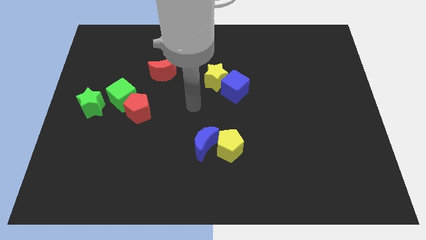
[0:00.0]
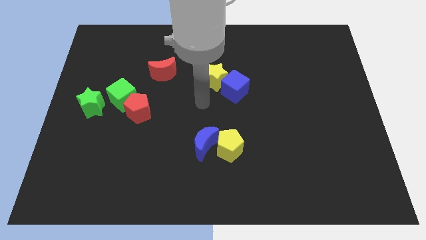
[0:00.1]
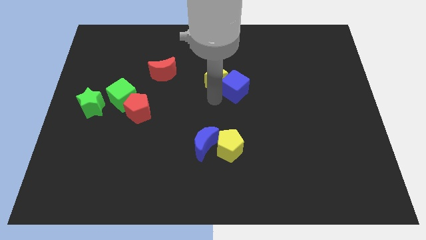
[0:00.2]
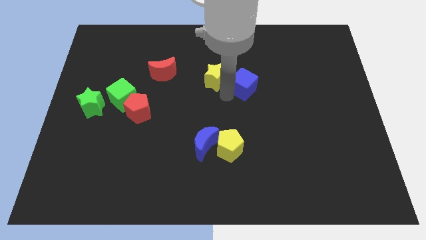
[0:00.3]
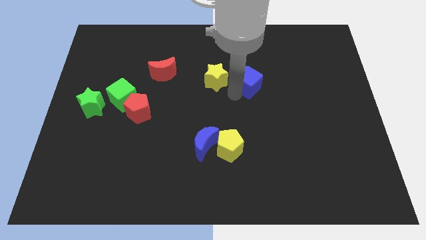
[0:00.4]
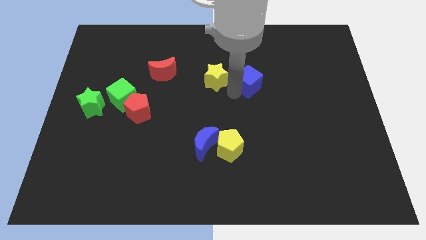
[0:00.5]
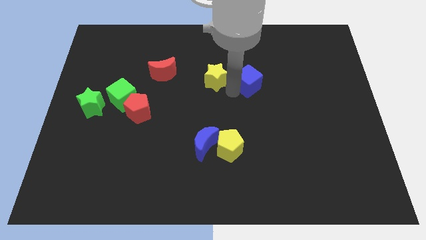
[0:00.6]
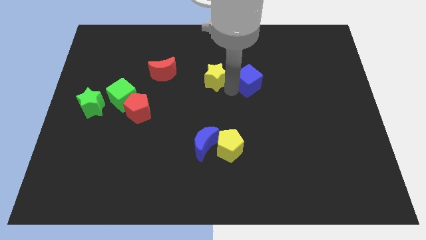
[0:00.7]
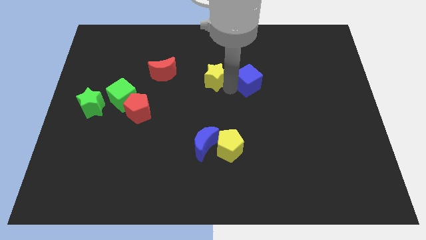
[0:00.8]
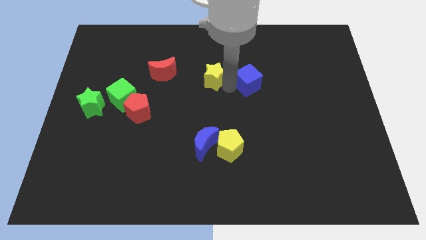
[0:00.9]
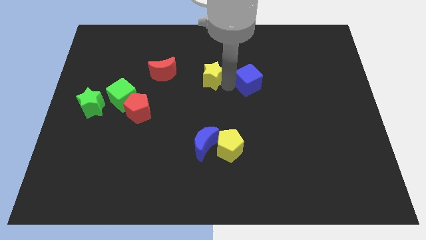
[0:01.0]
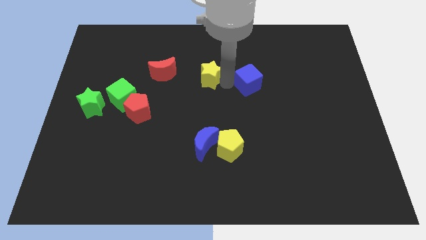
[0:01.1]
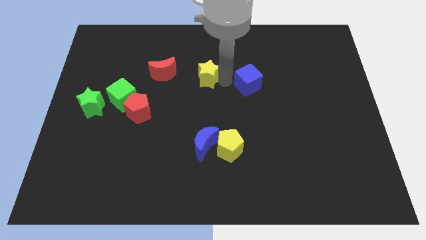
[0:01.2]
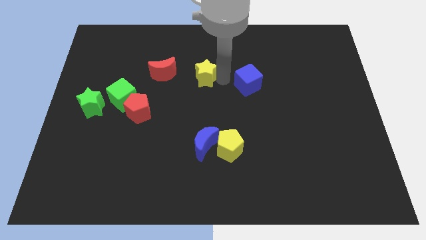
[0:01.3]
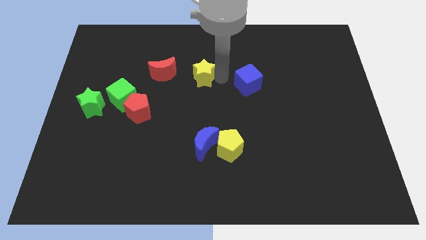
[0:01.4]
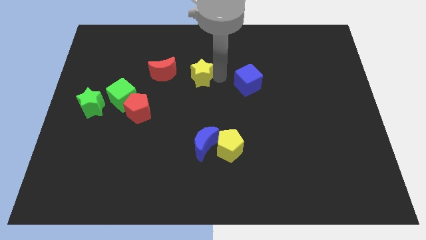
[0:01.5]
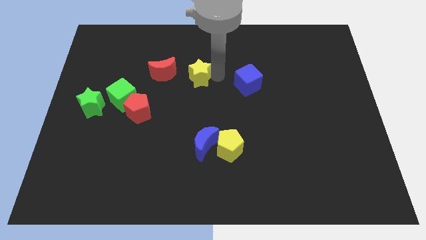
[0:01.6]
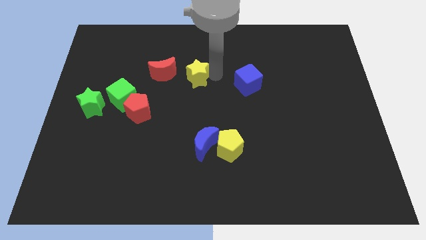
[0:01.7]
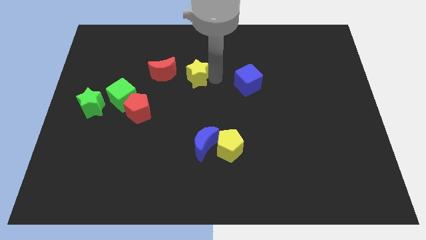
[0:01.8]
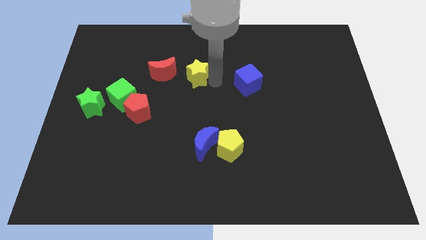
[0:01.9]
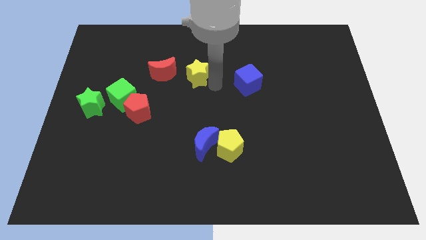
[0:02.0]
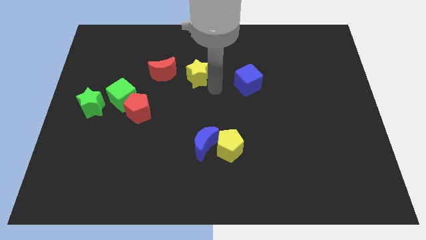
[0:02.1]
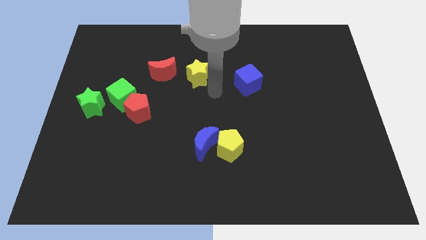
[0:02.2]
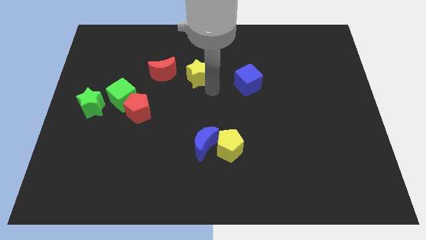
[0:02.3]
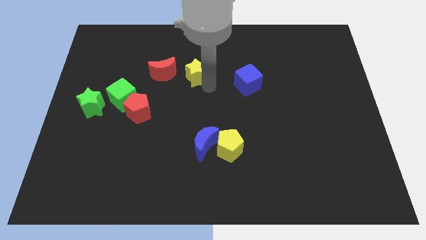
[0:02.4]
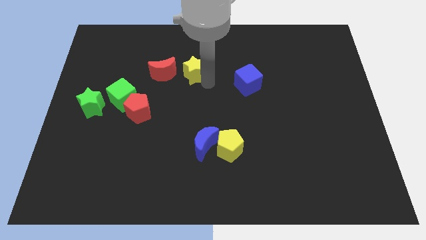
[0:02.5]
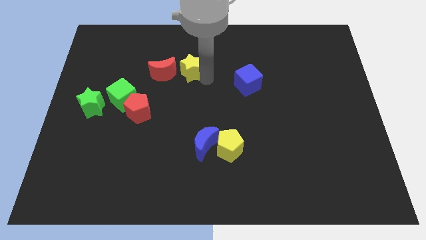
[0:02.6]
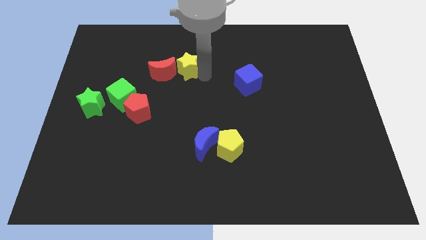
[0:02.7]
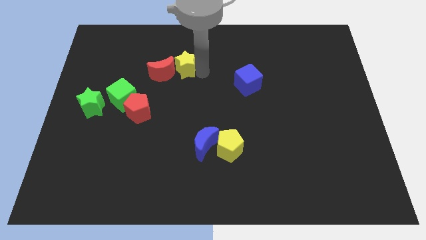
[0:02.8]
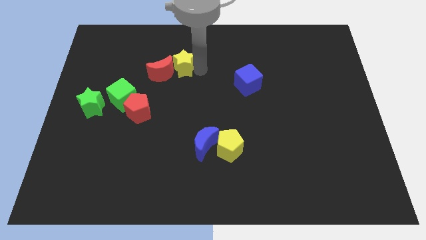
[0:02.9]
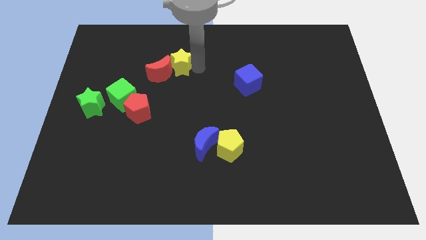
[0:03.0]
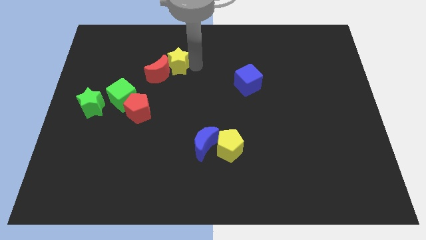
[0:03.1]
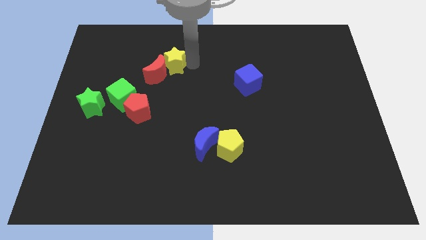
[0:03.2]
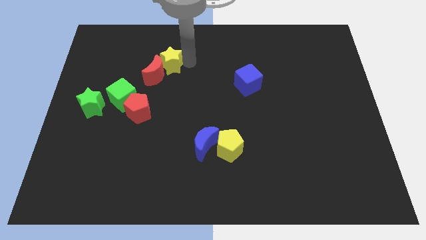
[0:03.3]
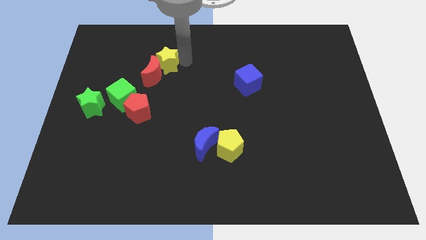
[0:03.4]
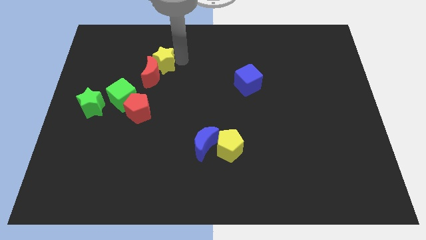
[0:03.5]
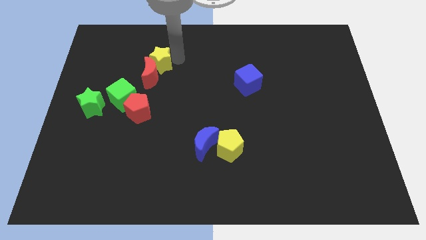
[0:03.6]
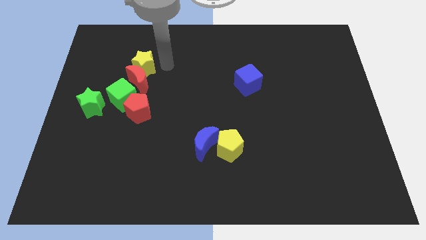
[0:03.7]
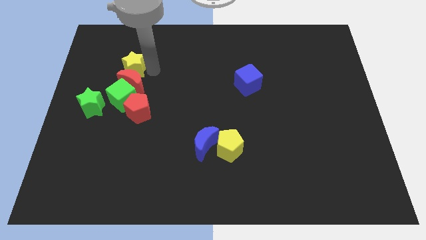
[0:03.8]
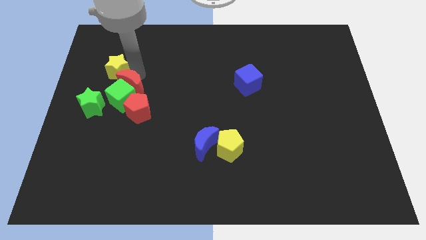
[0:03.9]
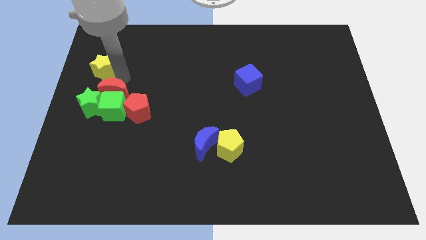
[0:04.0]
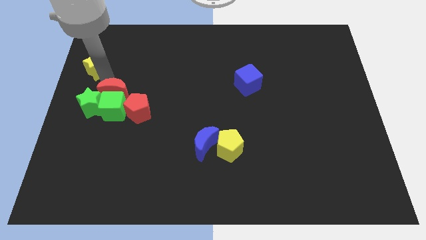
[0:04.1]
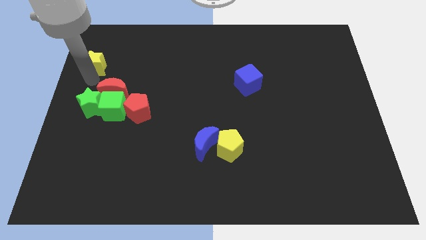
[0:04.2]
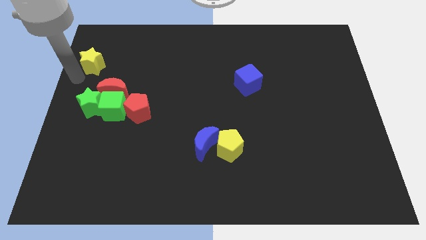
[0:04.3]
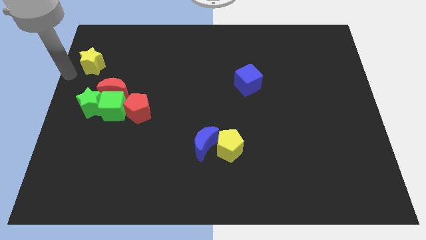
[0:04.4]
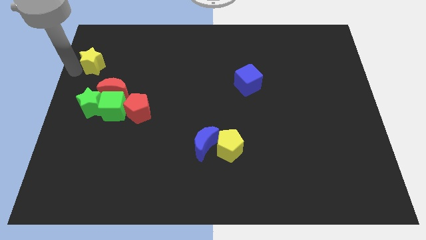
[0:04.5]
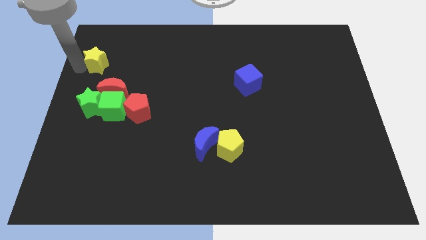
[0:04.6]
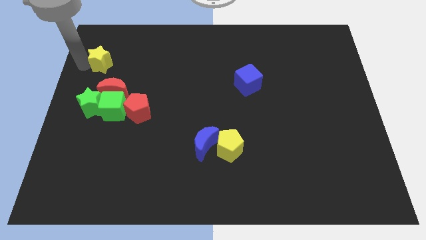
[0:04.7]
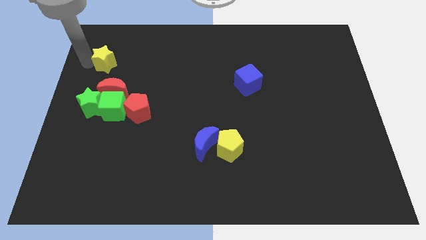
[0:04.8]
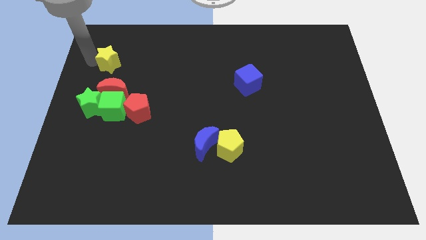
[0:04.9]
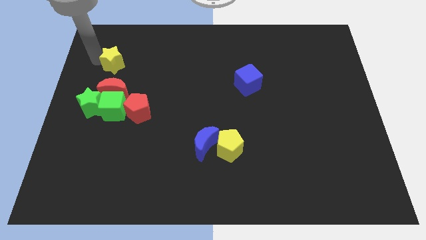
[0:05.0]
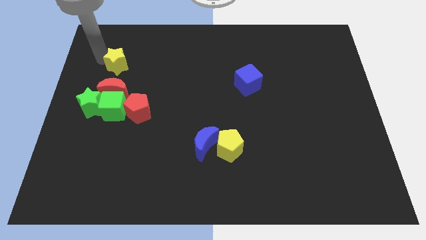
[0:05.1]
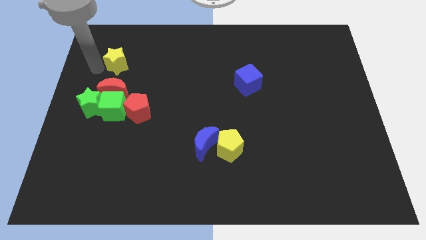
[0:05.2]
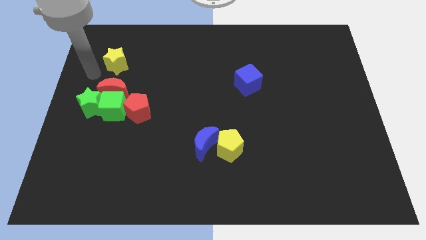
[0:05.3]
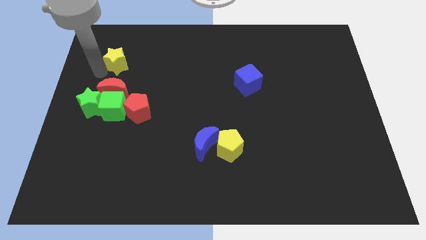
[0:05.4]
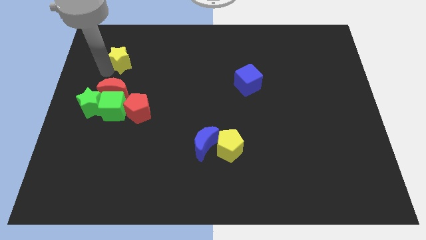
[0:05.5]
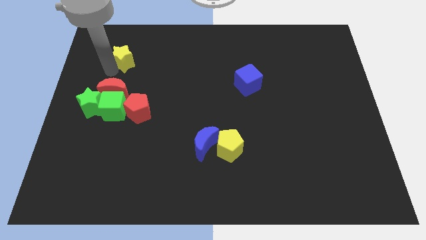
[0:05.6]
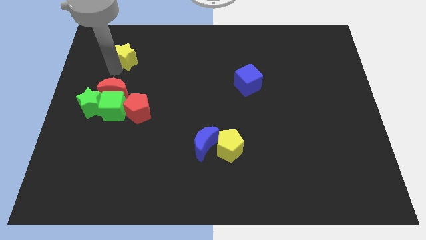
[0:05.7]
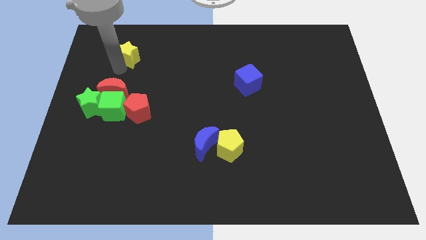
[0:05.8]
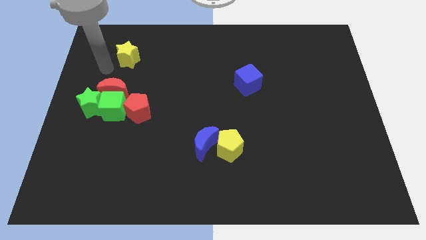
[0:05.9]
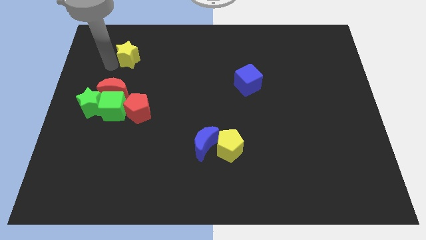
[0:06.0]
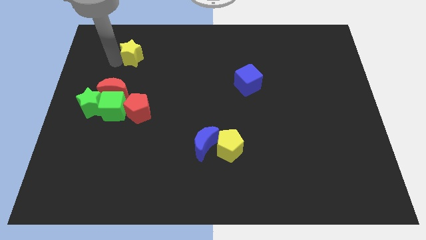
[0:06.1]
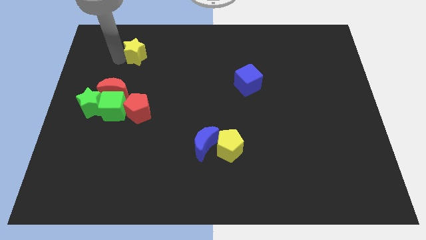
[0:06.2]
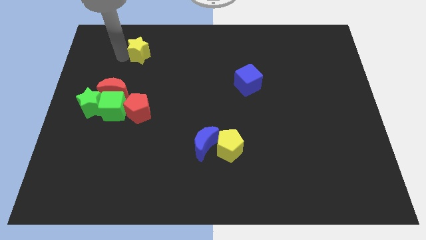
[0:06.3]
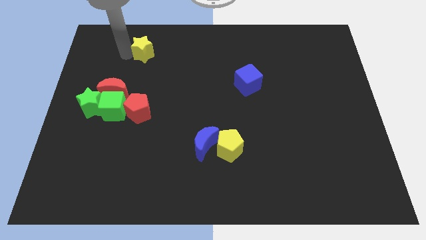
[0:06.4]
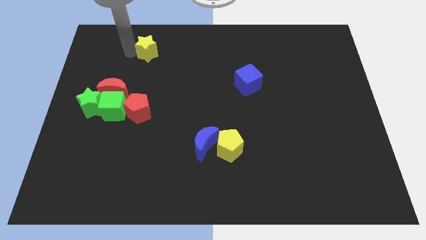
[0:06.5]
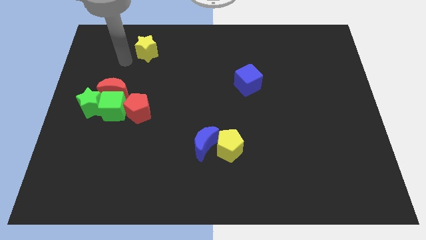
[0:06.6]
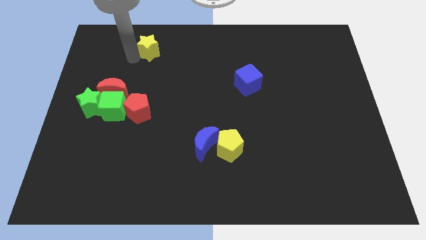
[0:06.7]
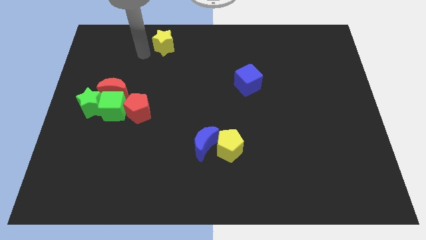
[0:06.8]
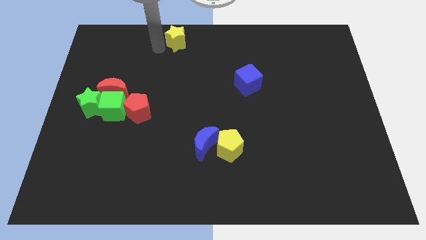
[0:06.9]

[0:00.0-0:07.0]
push the yellow star to the towards your base
